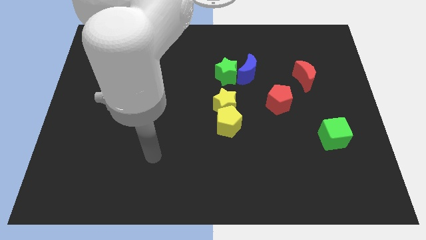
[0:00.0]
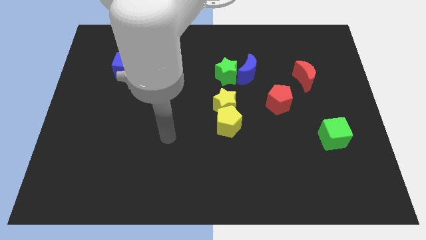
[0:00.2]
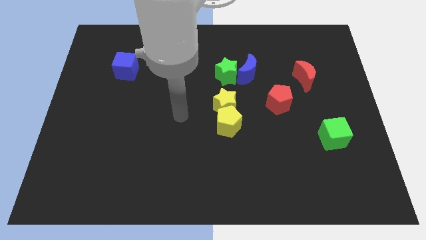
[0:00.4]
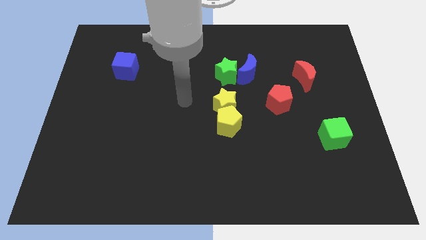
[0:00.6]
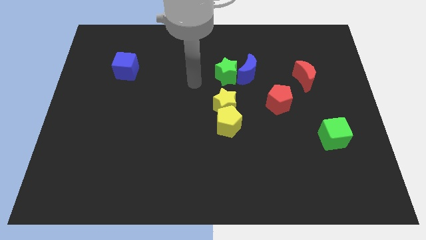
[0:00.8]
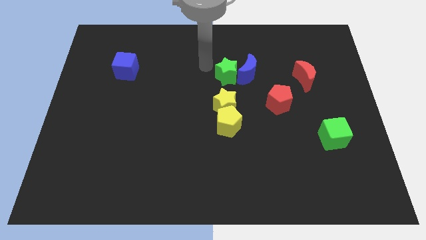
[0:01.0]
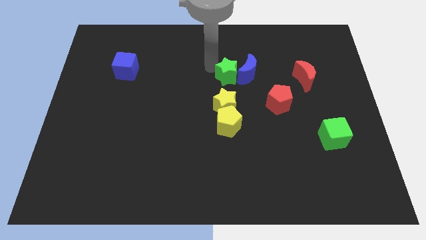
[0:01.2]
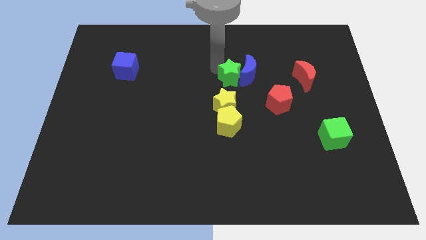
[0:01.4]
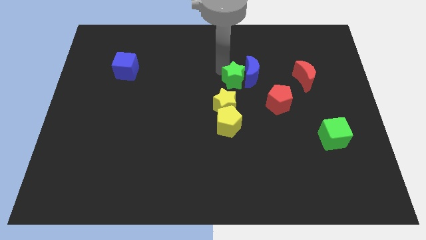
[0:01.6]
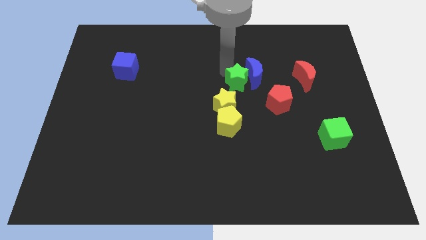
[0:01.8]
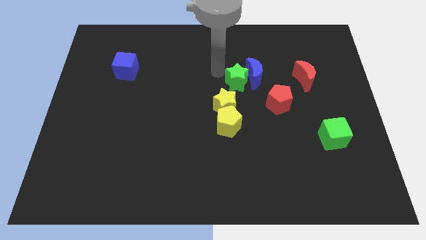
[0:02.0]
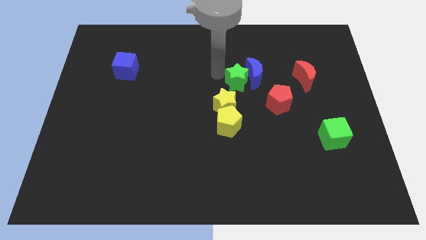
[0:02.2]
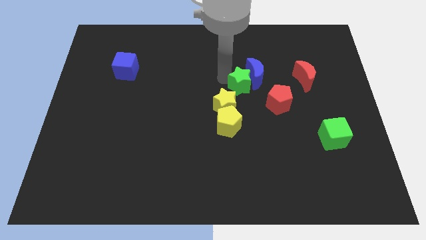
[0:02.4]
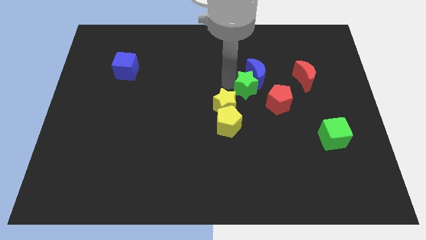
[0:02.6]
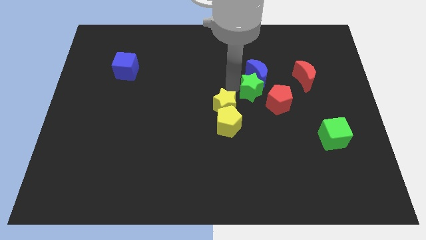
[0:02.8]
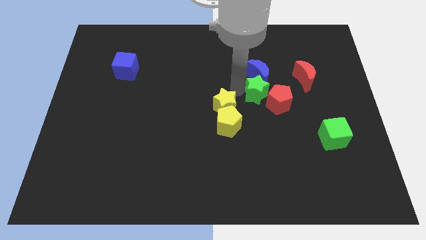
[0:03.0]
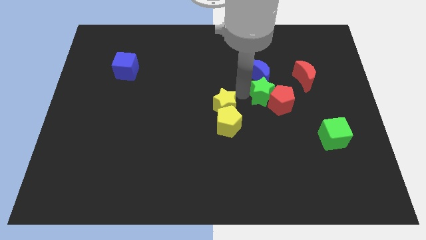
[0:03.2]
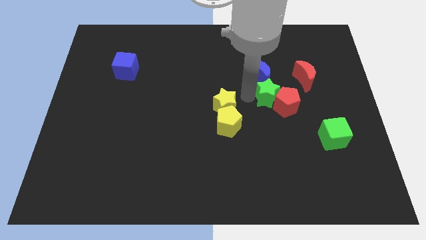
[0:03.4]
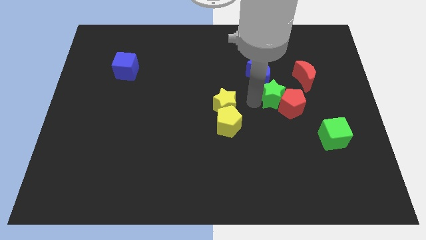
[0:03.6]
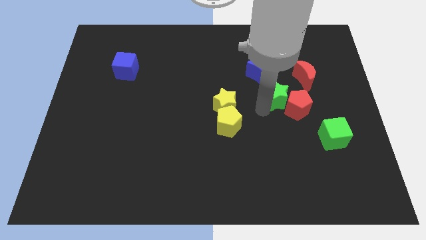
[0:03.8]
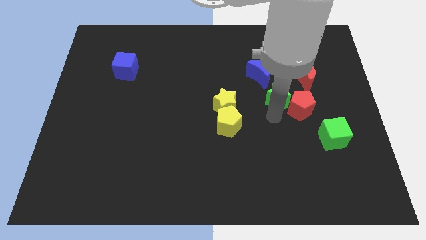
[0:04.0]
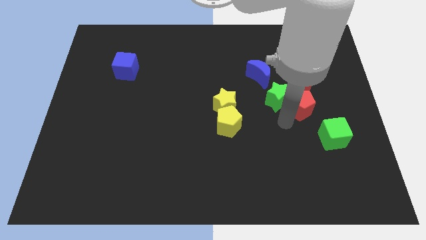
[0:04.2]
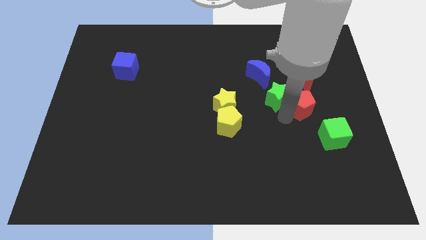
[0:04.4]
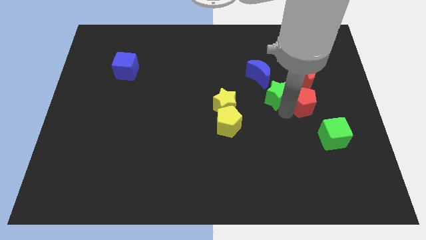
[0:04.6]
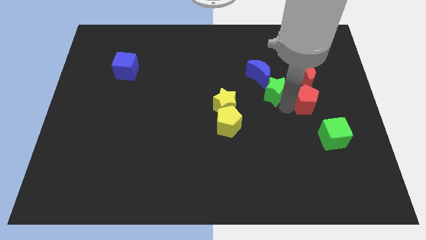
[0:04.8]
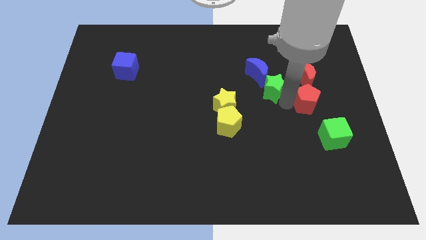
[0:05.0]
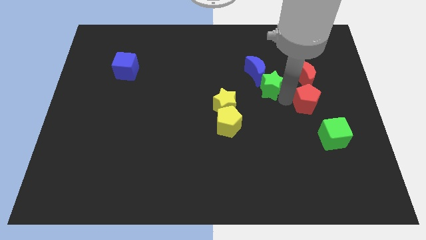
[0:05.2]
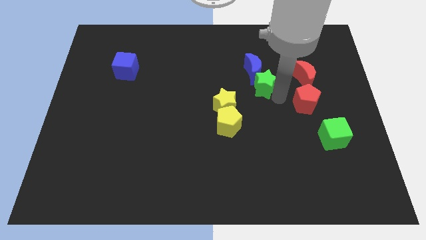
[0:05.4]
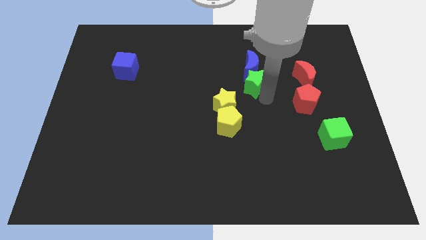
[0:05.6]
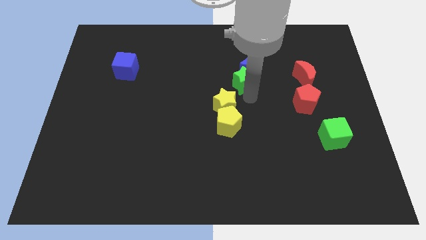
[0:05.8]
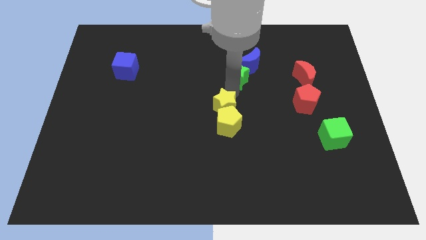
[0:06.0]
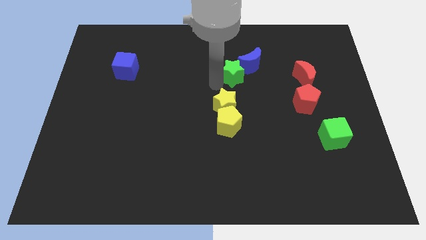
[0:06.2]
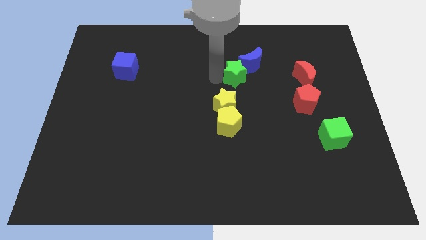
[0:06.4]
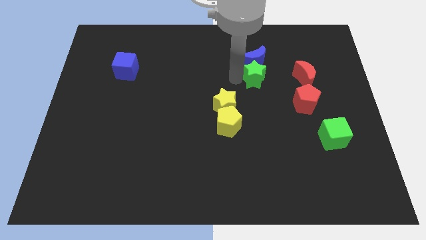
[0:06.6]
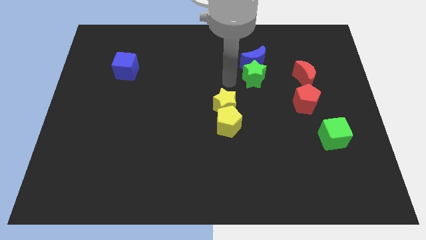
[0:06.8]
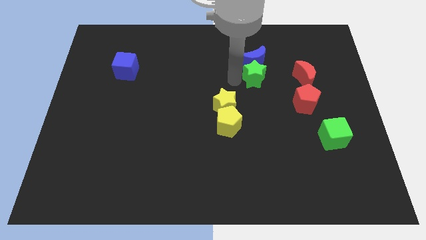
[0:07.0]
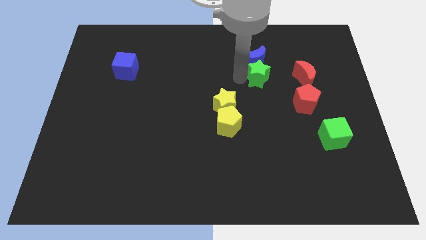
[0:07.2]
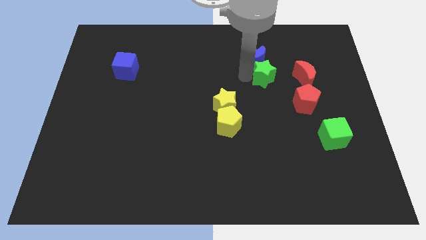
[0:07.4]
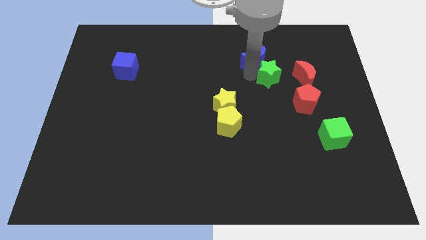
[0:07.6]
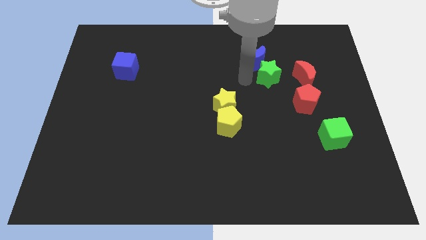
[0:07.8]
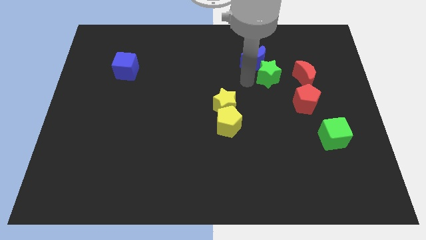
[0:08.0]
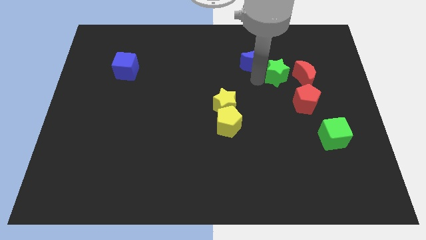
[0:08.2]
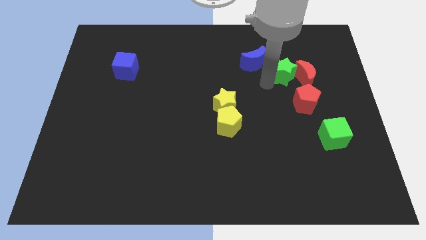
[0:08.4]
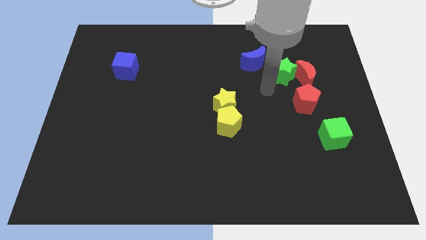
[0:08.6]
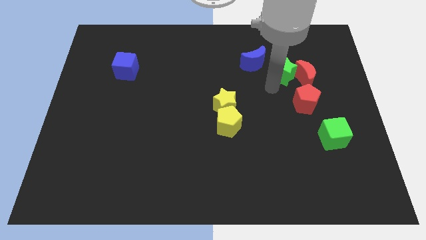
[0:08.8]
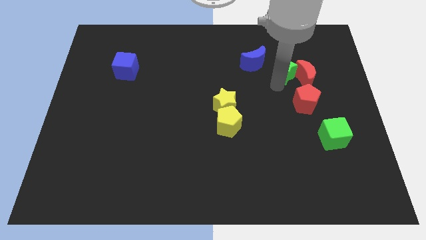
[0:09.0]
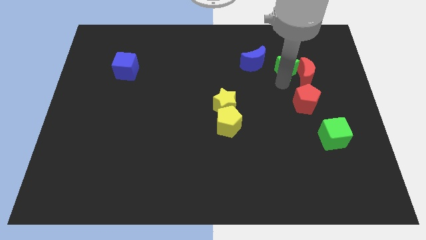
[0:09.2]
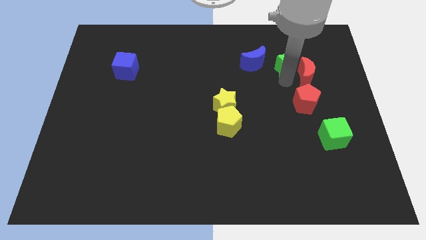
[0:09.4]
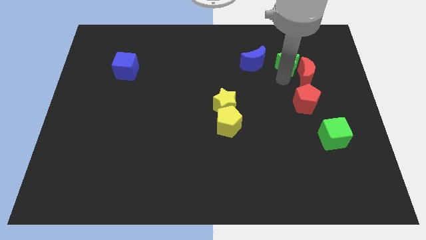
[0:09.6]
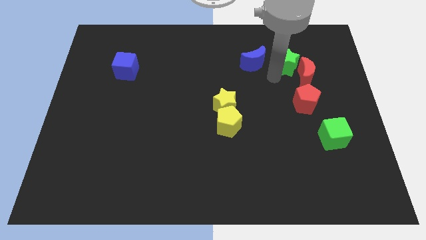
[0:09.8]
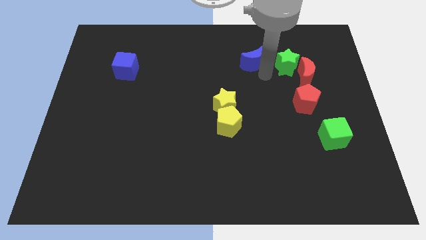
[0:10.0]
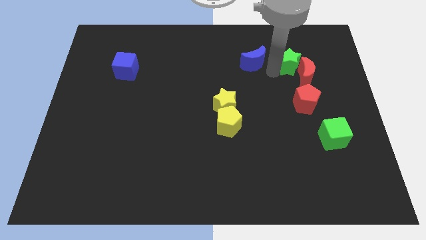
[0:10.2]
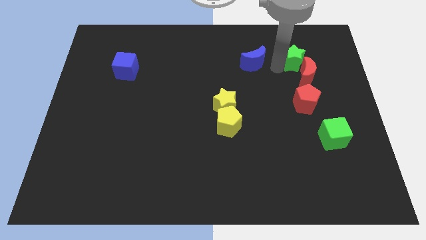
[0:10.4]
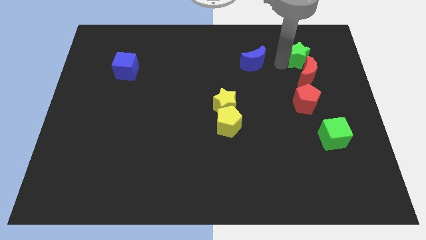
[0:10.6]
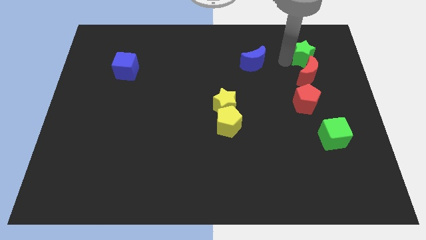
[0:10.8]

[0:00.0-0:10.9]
slide the green star to the top right of the red moon
